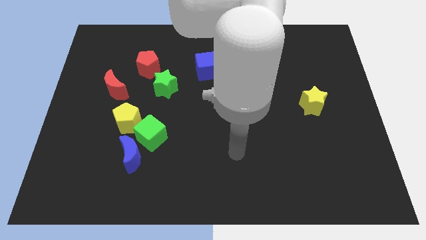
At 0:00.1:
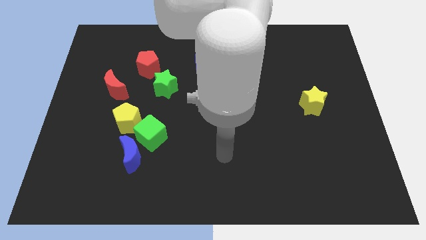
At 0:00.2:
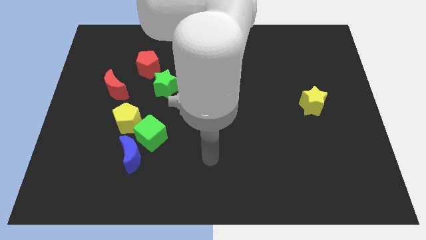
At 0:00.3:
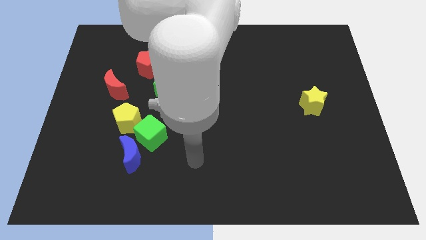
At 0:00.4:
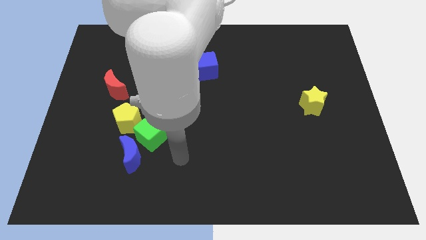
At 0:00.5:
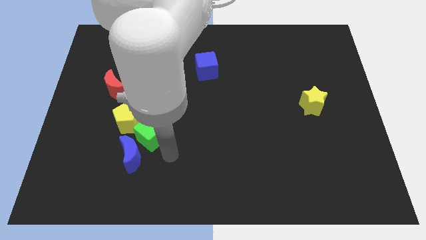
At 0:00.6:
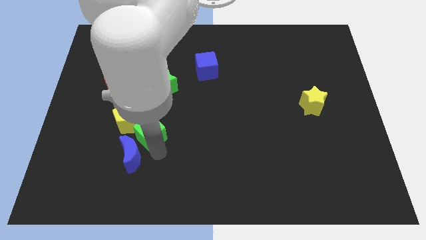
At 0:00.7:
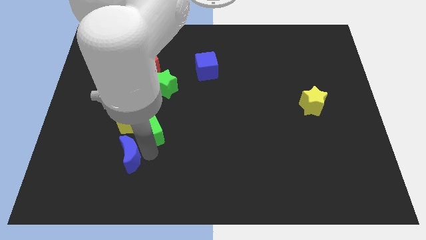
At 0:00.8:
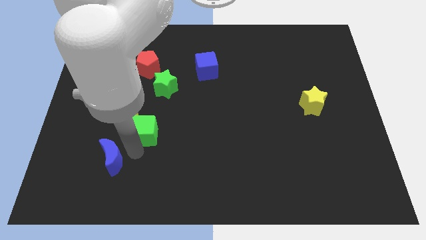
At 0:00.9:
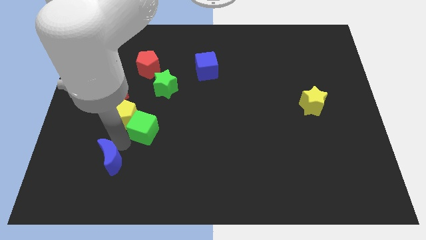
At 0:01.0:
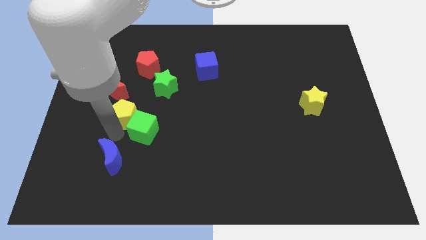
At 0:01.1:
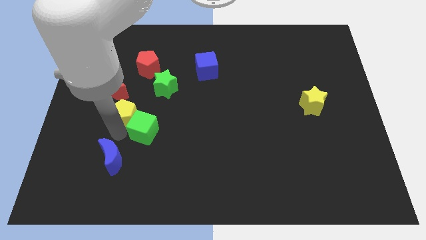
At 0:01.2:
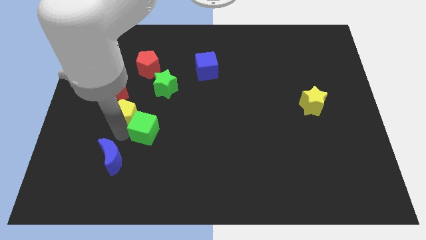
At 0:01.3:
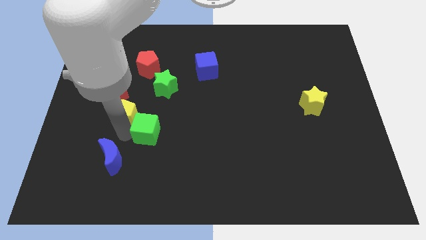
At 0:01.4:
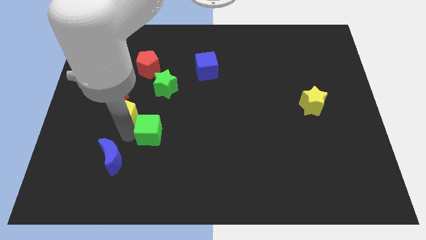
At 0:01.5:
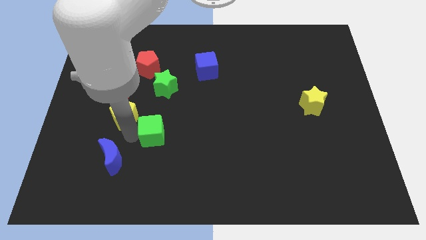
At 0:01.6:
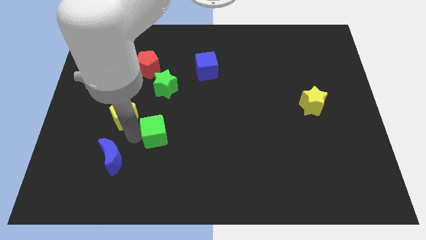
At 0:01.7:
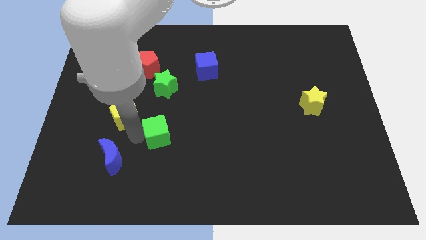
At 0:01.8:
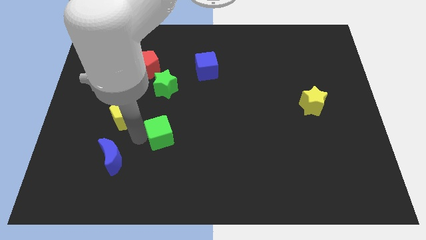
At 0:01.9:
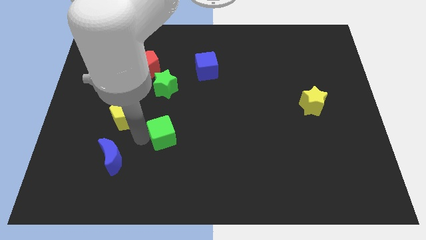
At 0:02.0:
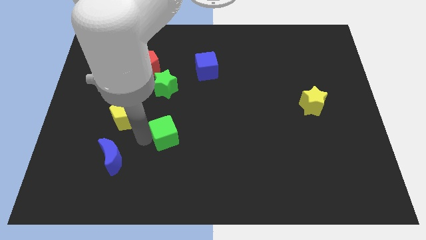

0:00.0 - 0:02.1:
pull the green cube apart from the blue moon and yellow pentagon

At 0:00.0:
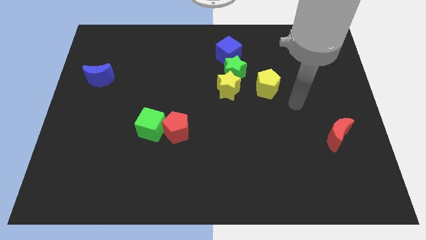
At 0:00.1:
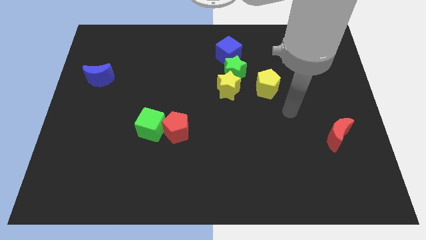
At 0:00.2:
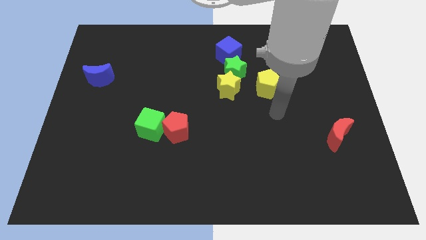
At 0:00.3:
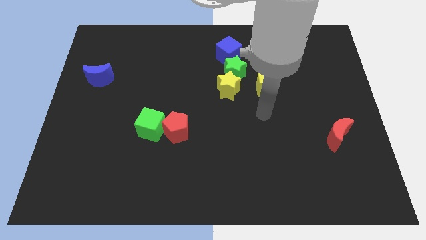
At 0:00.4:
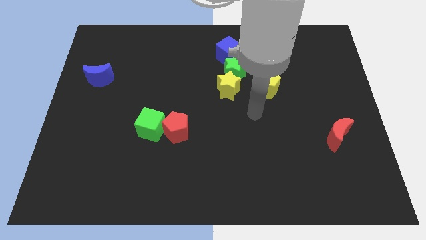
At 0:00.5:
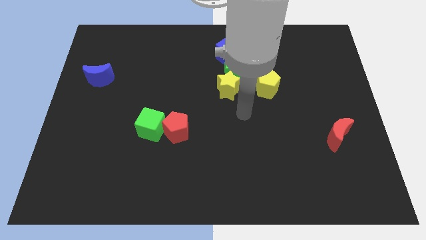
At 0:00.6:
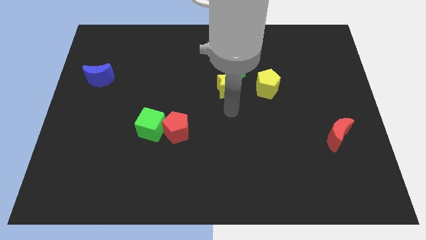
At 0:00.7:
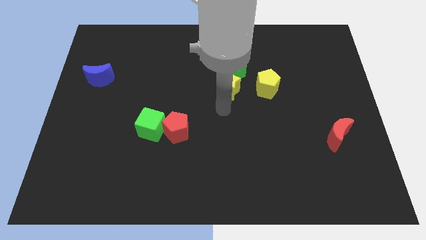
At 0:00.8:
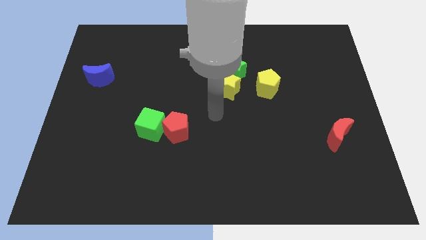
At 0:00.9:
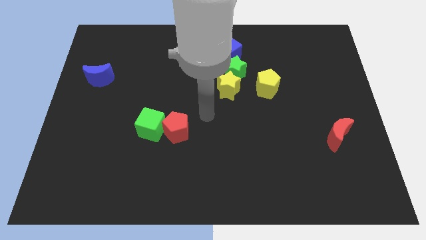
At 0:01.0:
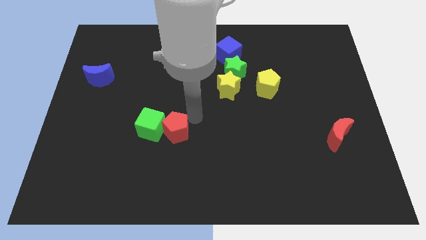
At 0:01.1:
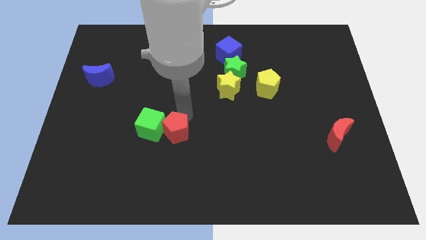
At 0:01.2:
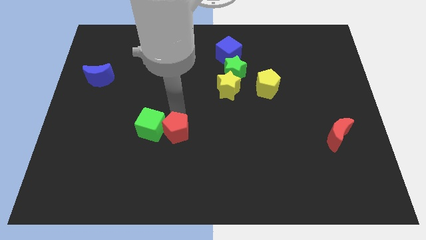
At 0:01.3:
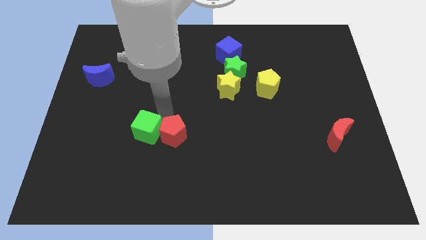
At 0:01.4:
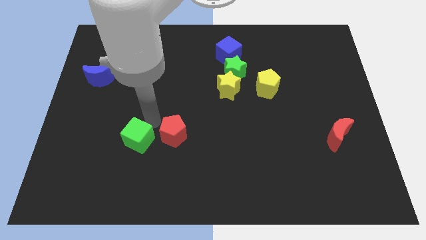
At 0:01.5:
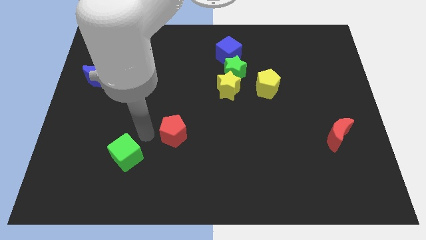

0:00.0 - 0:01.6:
move the red pentagon away from the green cube

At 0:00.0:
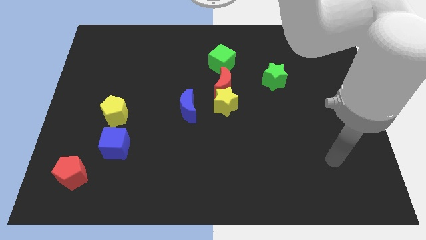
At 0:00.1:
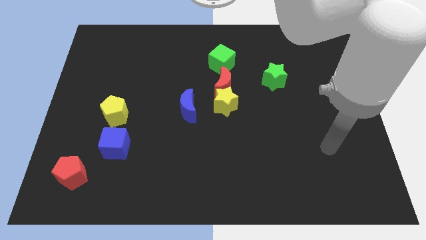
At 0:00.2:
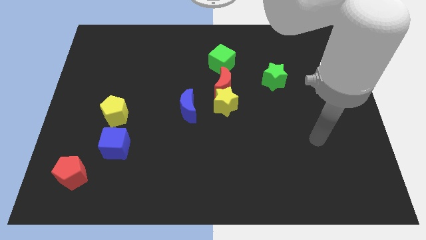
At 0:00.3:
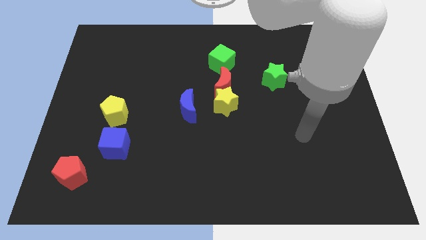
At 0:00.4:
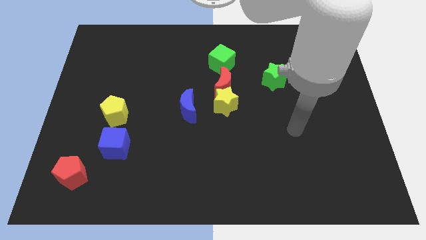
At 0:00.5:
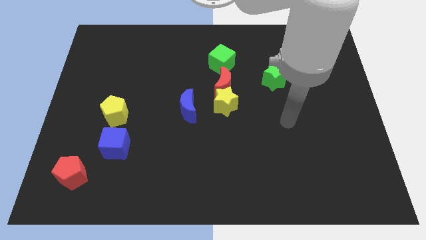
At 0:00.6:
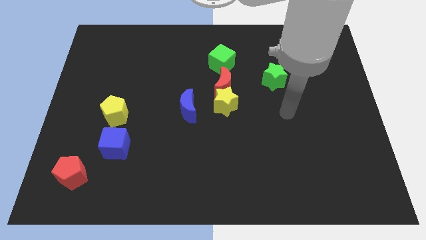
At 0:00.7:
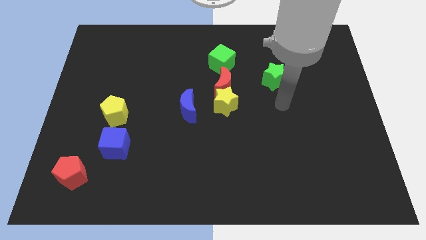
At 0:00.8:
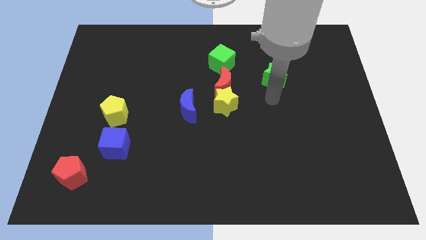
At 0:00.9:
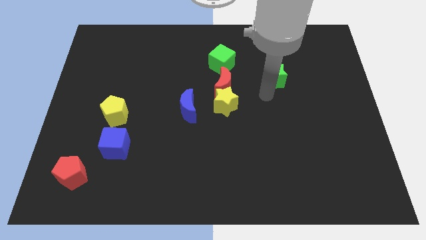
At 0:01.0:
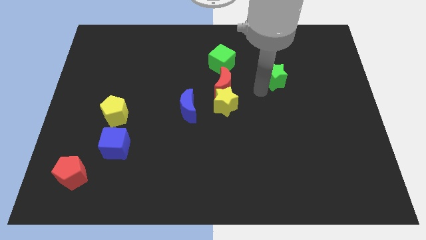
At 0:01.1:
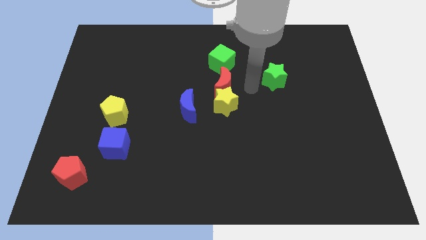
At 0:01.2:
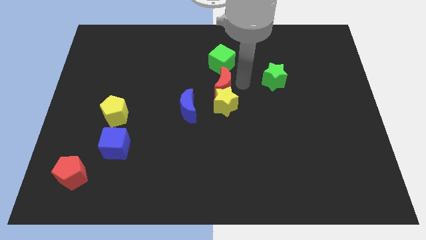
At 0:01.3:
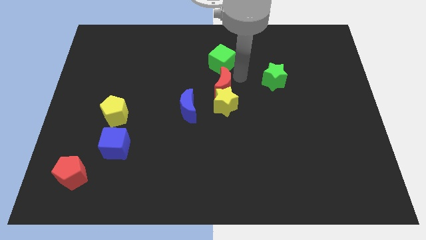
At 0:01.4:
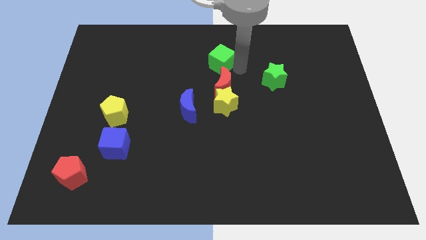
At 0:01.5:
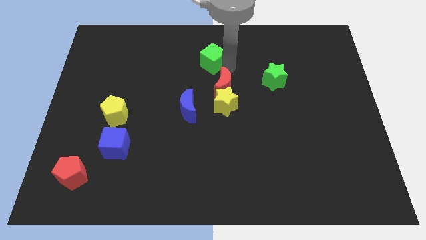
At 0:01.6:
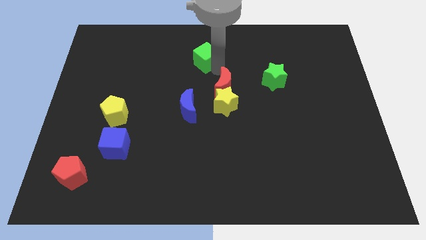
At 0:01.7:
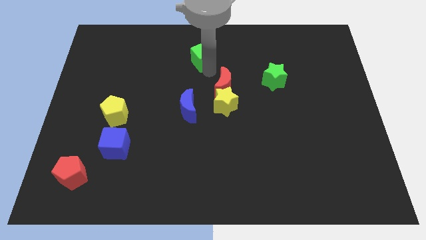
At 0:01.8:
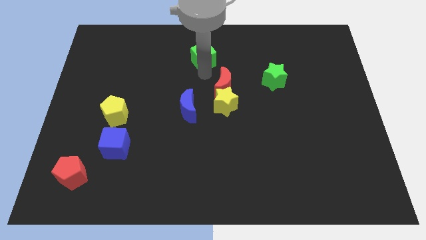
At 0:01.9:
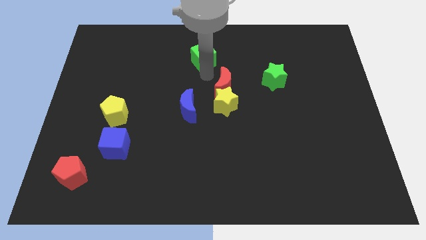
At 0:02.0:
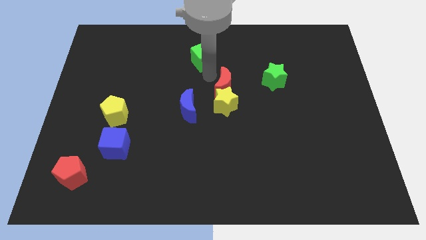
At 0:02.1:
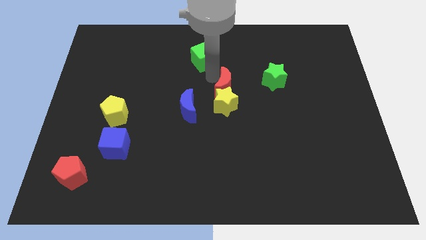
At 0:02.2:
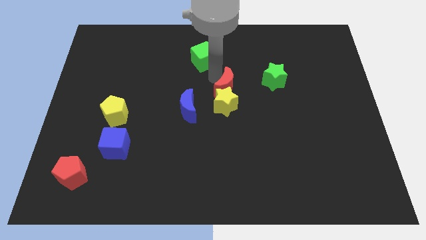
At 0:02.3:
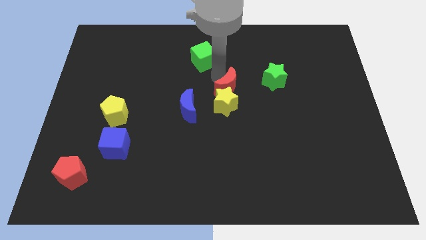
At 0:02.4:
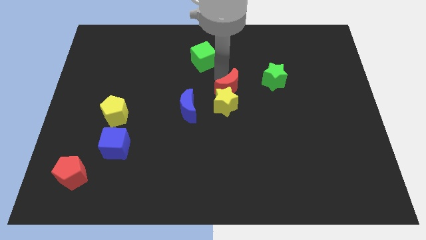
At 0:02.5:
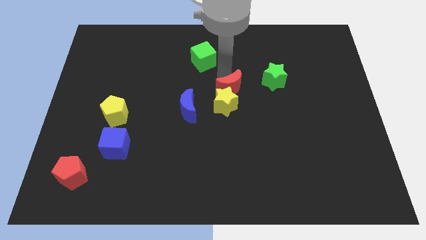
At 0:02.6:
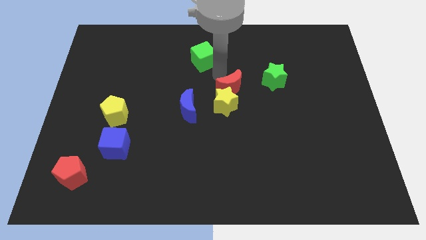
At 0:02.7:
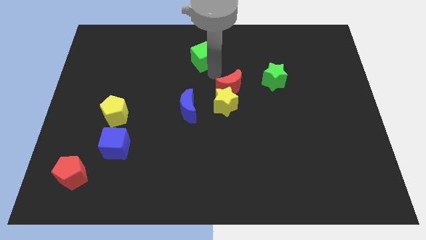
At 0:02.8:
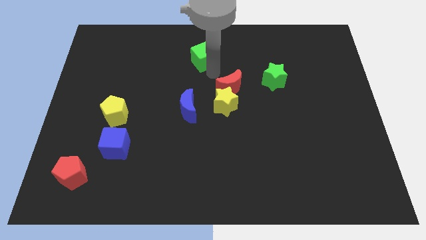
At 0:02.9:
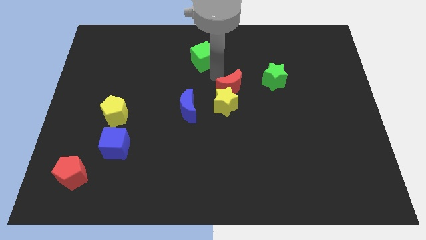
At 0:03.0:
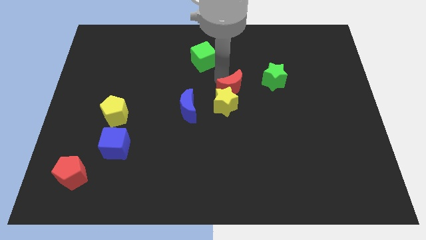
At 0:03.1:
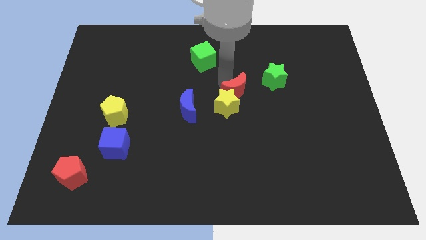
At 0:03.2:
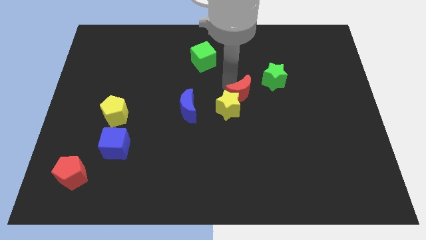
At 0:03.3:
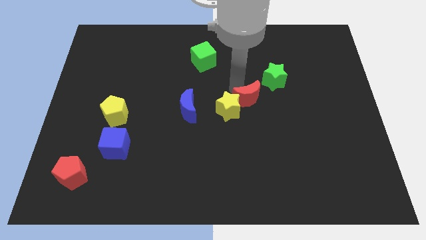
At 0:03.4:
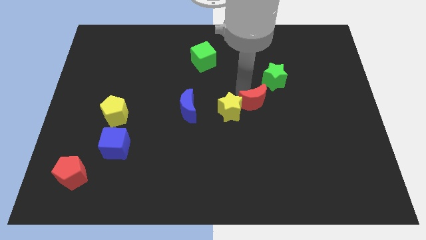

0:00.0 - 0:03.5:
pull the red moon apart from the yellow star and green cube

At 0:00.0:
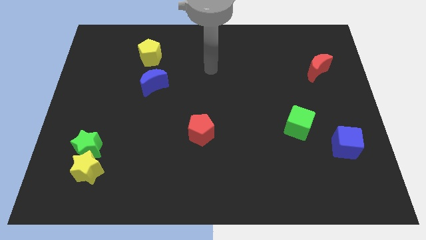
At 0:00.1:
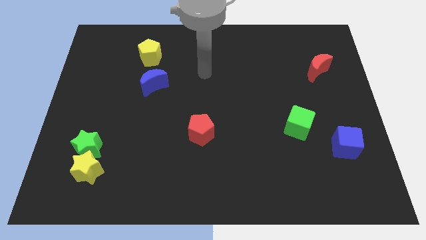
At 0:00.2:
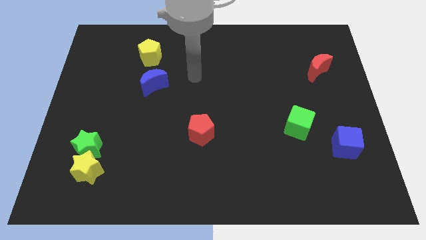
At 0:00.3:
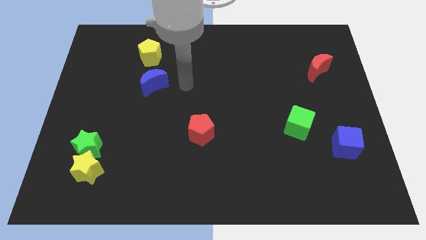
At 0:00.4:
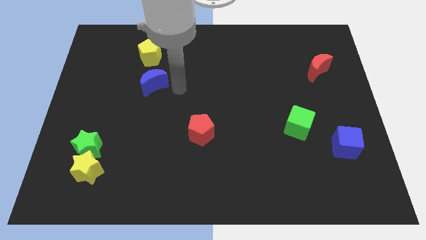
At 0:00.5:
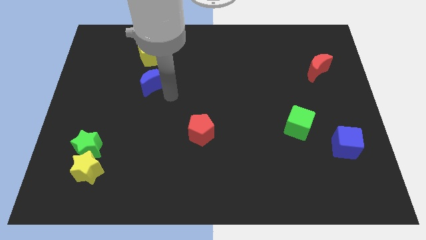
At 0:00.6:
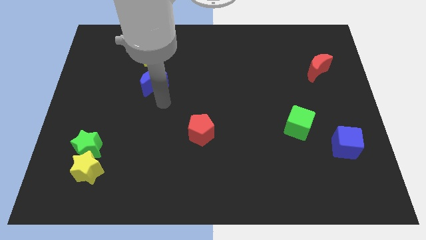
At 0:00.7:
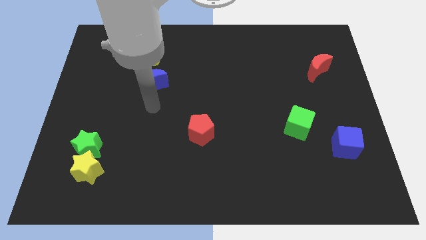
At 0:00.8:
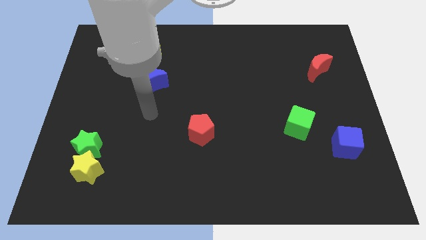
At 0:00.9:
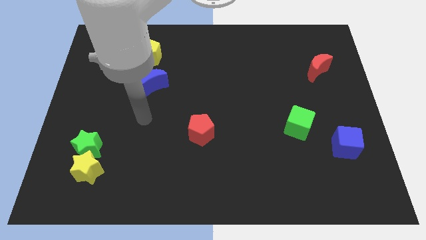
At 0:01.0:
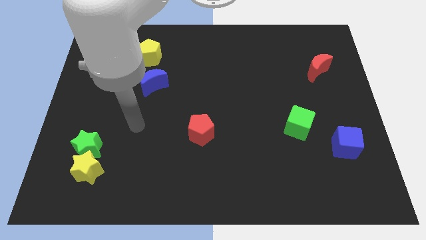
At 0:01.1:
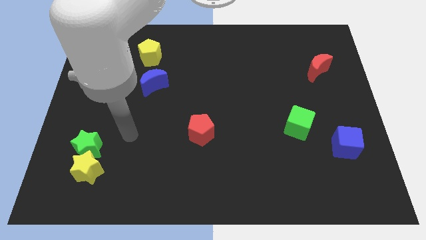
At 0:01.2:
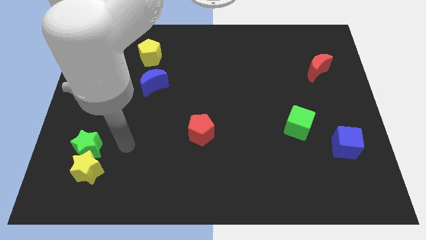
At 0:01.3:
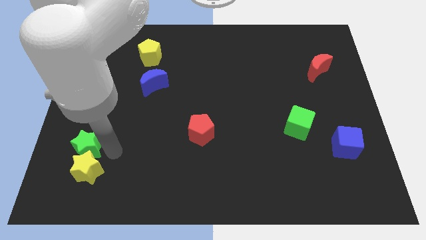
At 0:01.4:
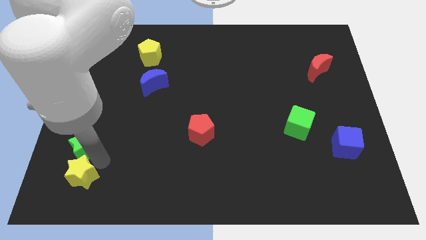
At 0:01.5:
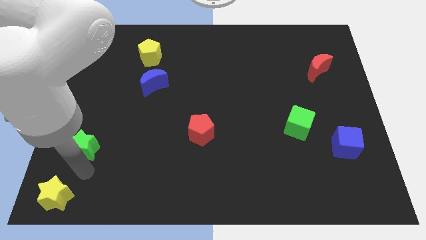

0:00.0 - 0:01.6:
separate the green star from the yellow star

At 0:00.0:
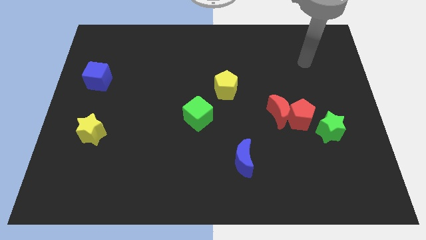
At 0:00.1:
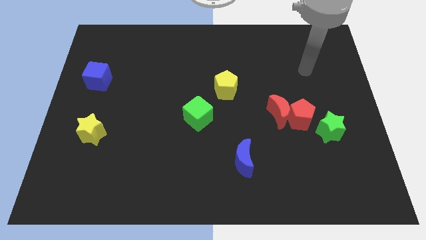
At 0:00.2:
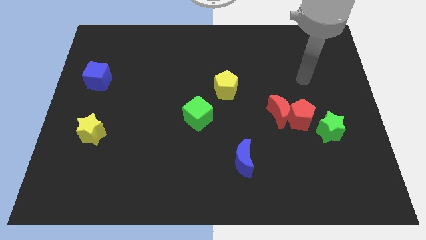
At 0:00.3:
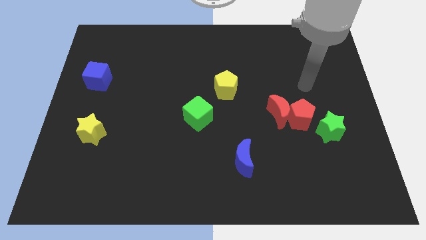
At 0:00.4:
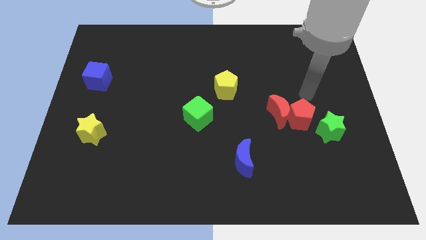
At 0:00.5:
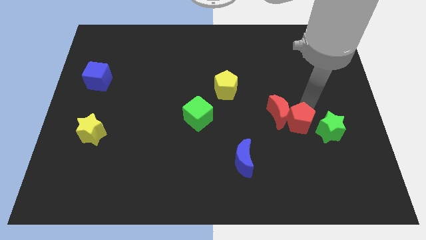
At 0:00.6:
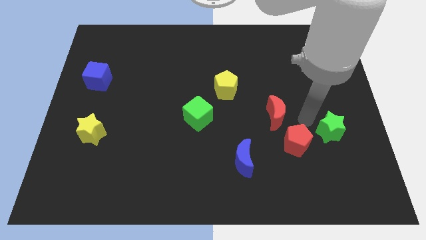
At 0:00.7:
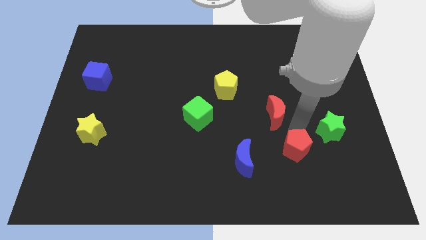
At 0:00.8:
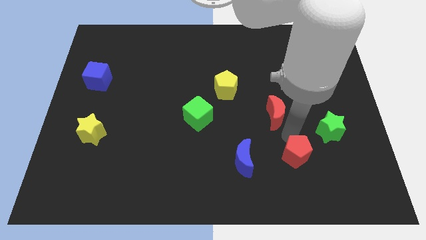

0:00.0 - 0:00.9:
pull the red moon apart from the red pentagon
